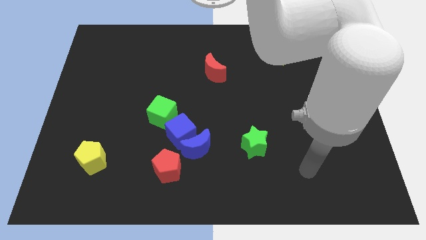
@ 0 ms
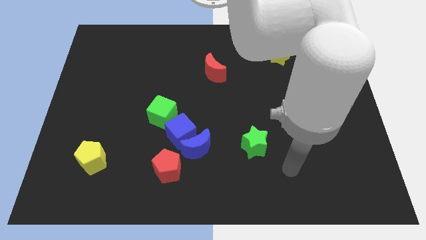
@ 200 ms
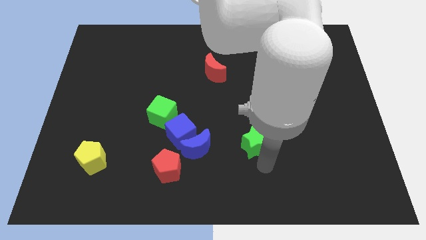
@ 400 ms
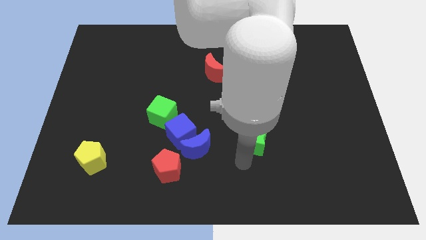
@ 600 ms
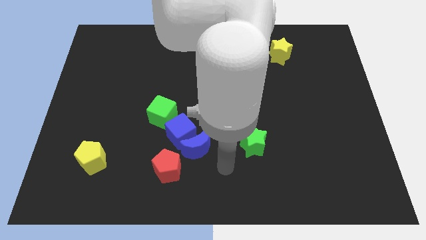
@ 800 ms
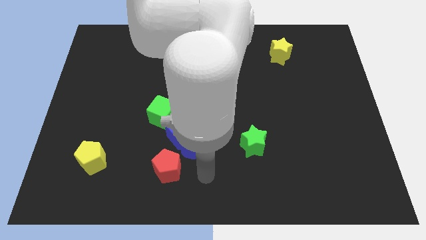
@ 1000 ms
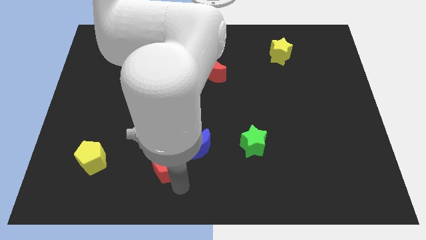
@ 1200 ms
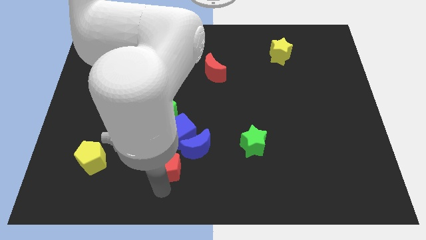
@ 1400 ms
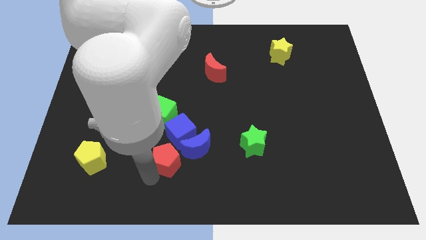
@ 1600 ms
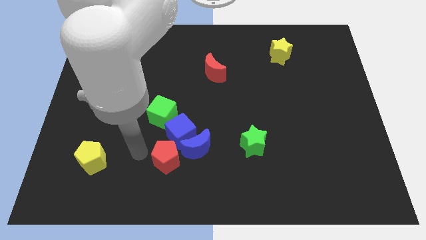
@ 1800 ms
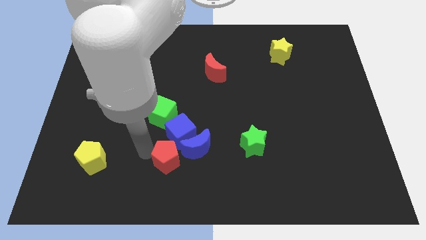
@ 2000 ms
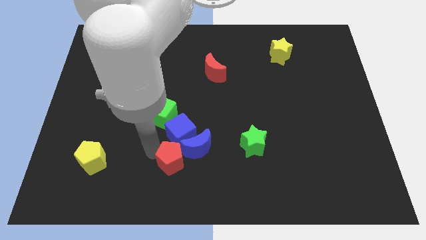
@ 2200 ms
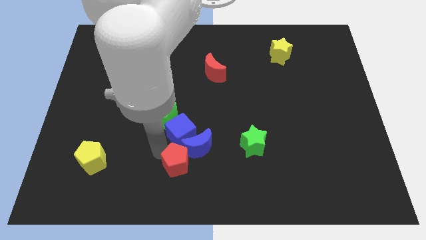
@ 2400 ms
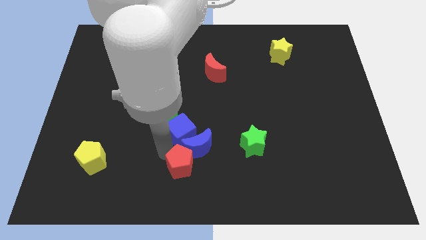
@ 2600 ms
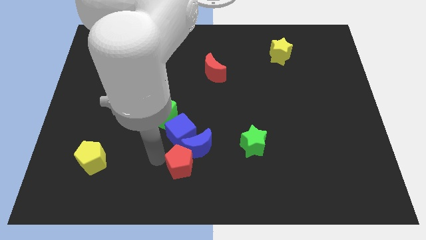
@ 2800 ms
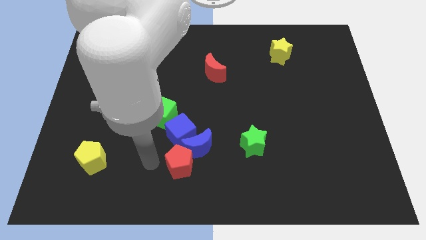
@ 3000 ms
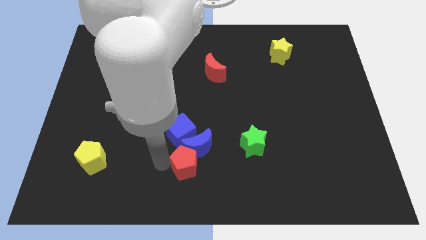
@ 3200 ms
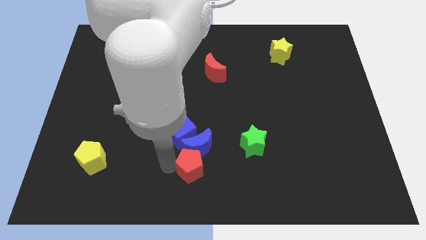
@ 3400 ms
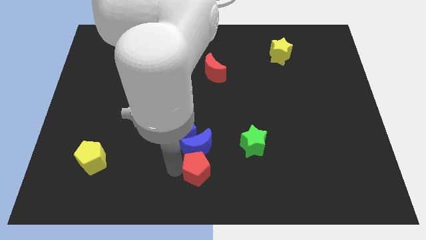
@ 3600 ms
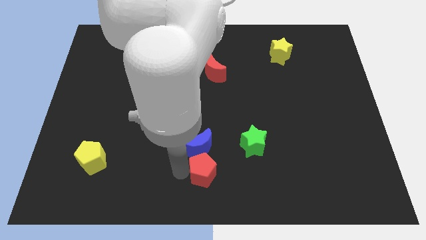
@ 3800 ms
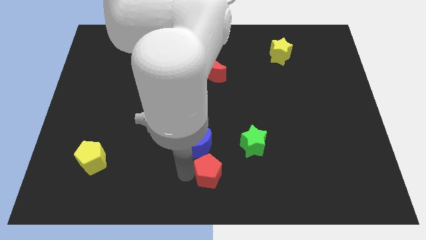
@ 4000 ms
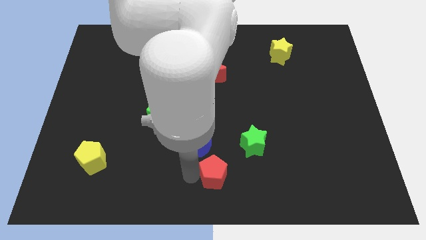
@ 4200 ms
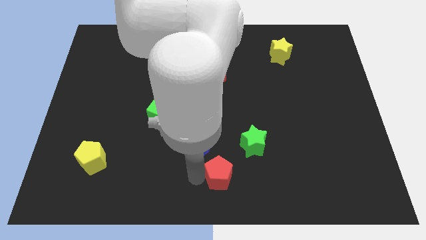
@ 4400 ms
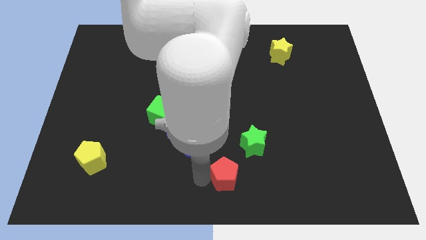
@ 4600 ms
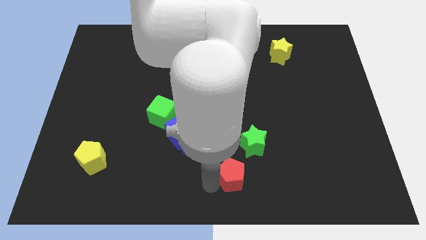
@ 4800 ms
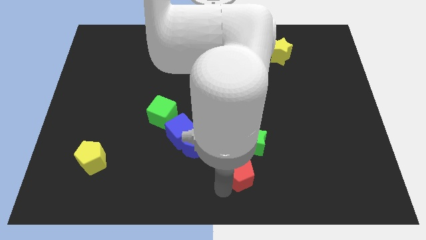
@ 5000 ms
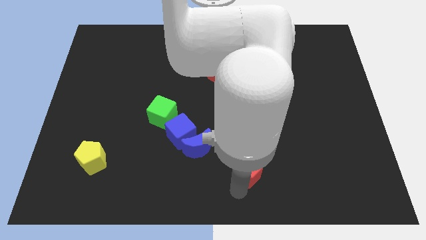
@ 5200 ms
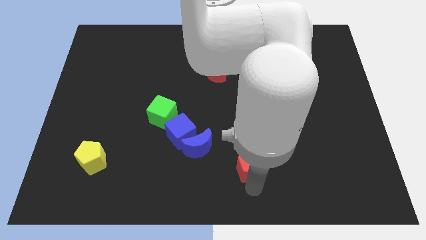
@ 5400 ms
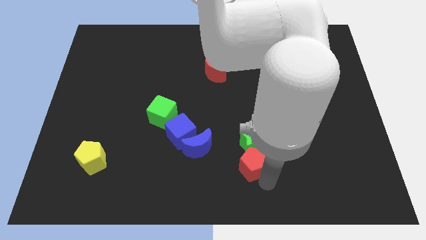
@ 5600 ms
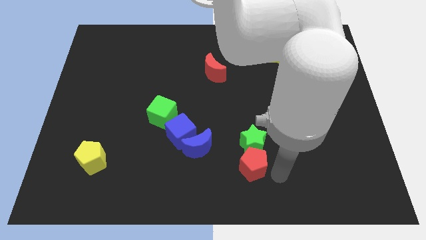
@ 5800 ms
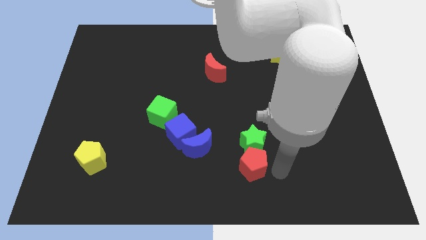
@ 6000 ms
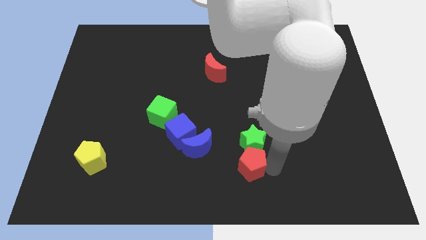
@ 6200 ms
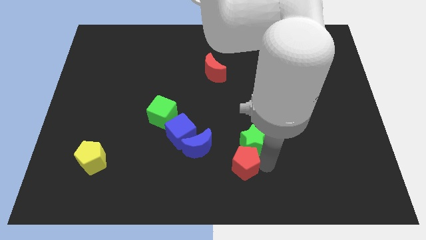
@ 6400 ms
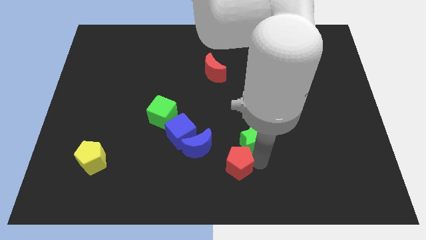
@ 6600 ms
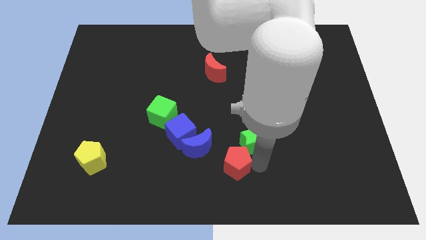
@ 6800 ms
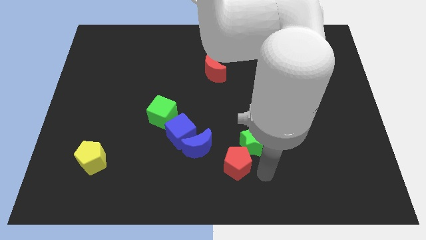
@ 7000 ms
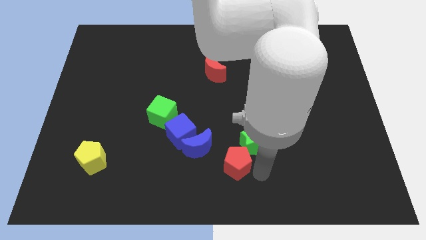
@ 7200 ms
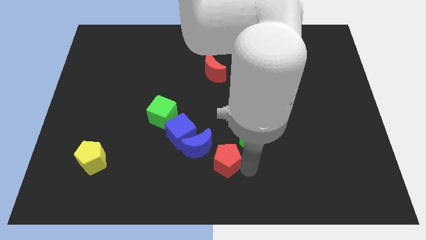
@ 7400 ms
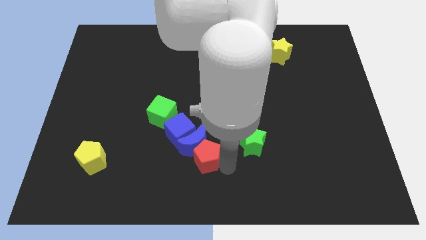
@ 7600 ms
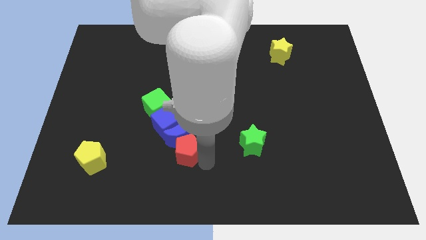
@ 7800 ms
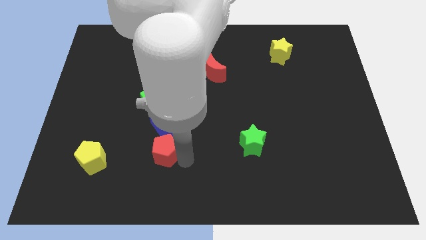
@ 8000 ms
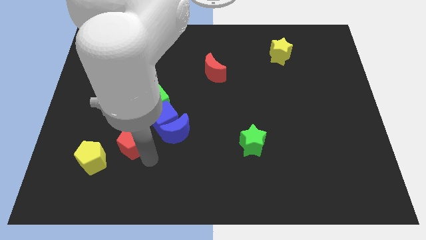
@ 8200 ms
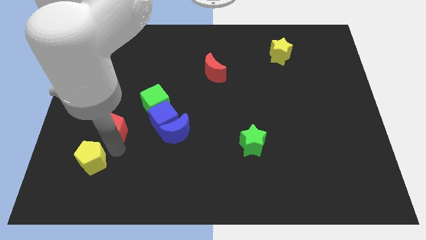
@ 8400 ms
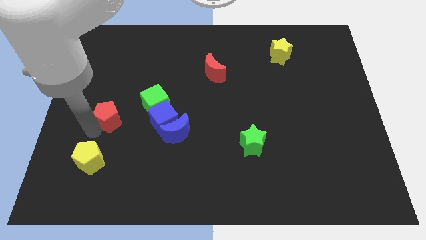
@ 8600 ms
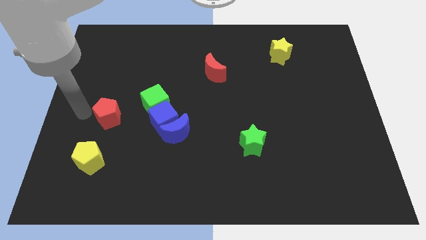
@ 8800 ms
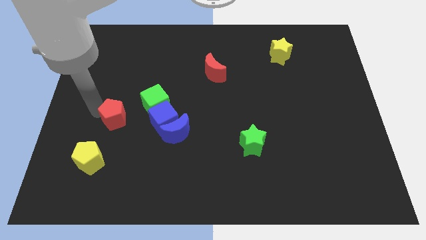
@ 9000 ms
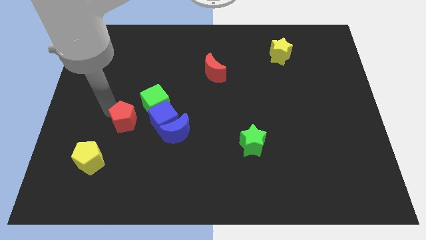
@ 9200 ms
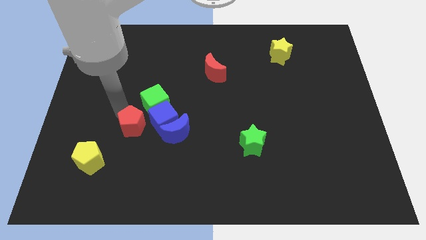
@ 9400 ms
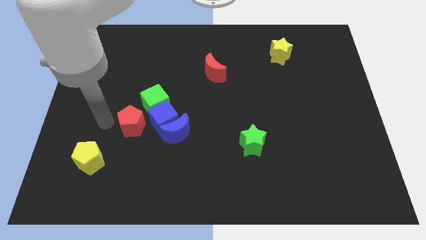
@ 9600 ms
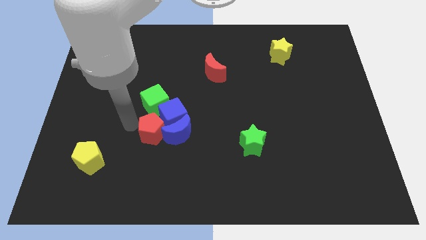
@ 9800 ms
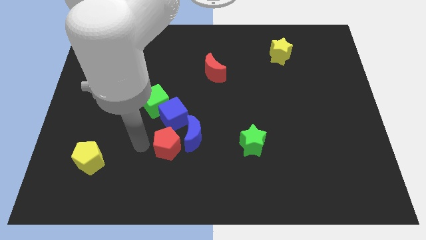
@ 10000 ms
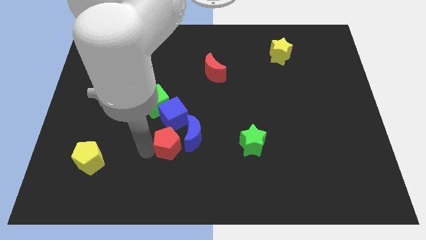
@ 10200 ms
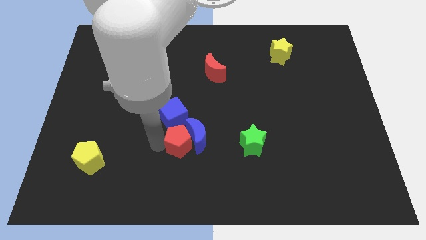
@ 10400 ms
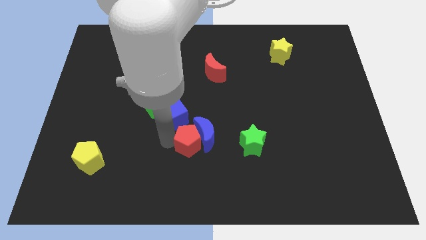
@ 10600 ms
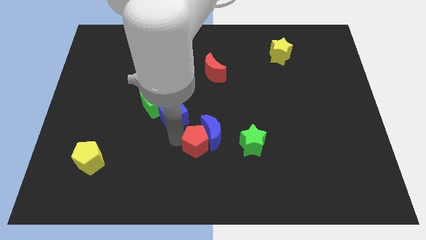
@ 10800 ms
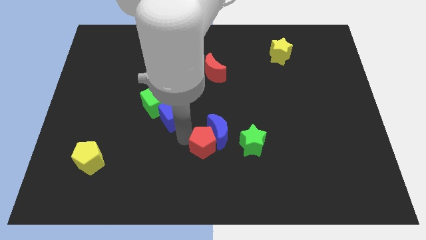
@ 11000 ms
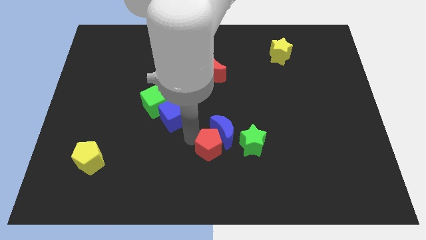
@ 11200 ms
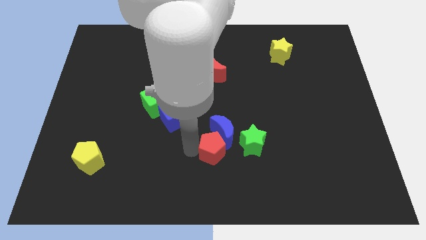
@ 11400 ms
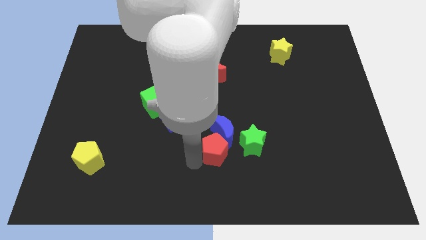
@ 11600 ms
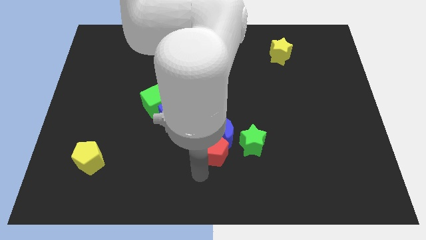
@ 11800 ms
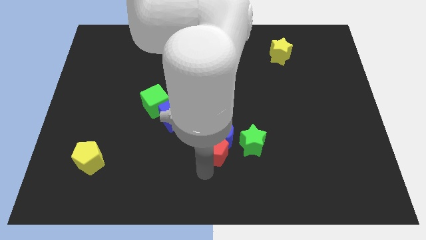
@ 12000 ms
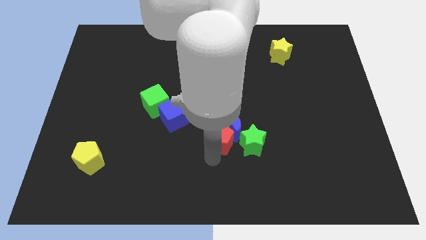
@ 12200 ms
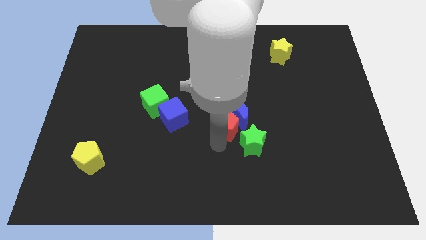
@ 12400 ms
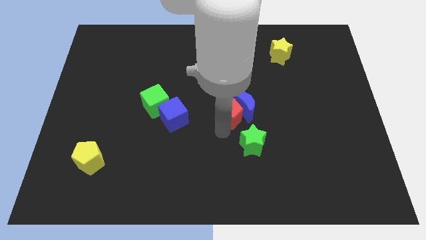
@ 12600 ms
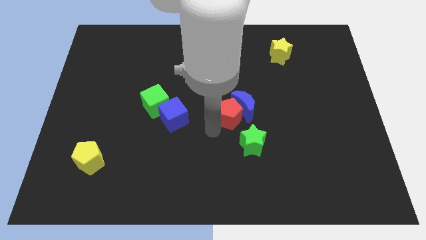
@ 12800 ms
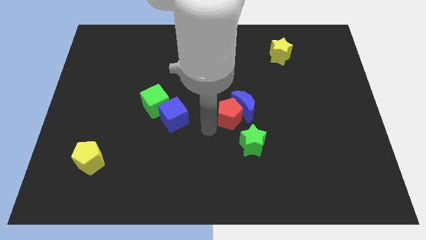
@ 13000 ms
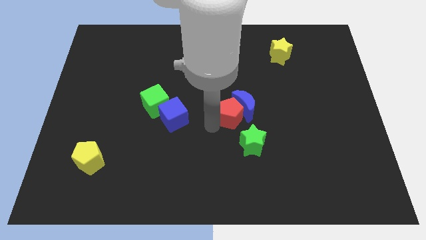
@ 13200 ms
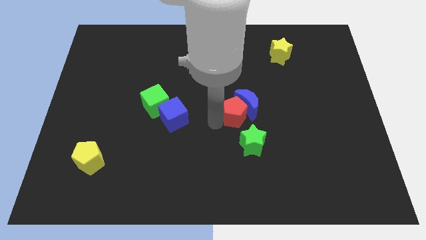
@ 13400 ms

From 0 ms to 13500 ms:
push the red pentagon upwards and right diagonally

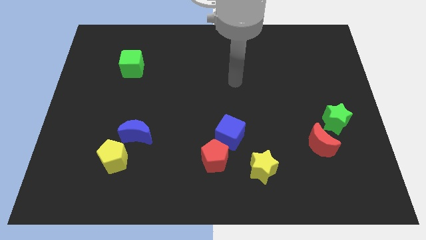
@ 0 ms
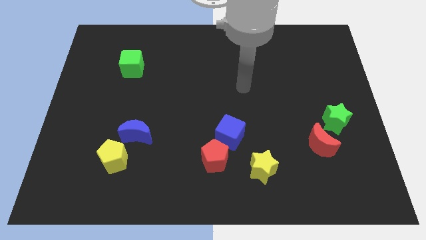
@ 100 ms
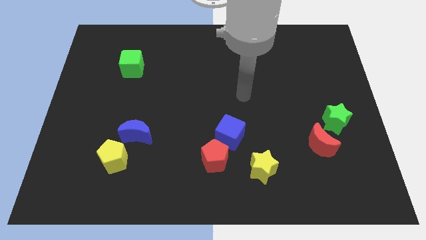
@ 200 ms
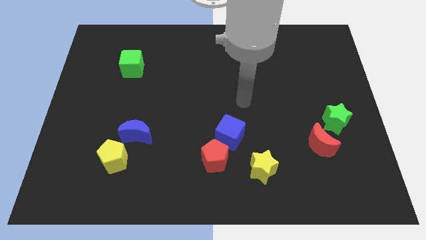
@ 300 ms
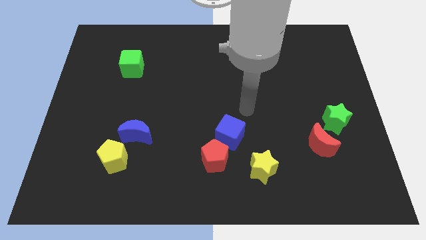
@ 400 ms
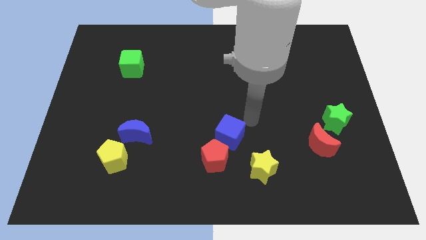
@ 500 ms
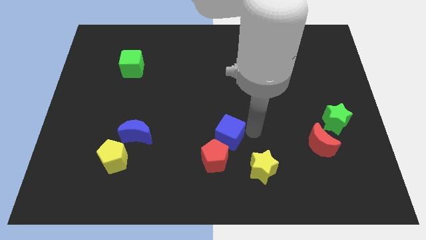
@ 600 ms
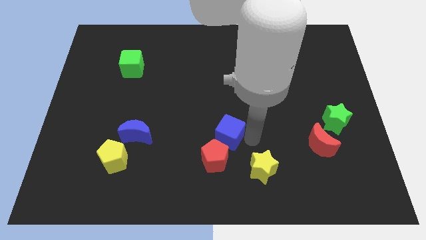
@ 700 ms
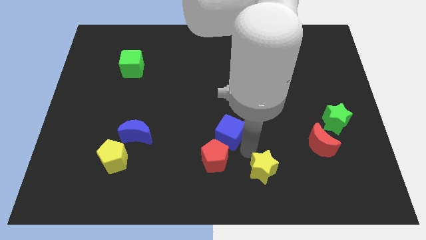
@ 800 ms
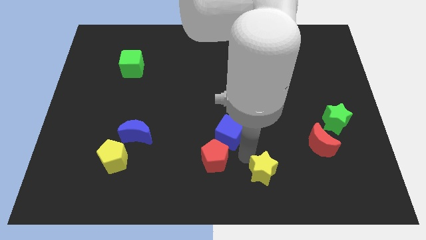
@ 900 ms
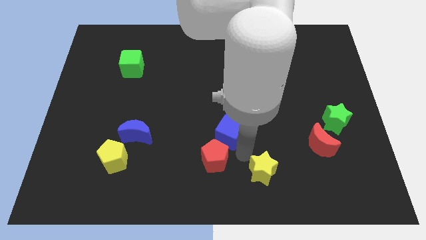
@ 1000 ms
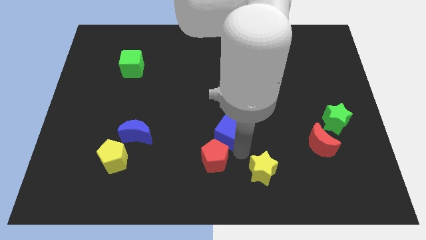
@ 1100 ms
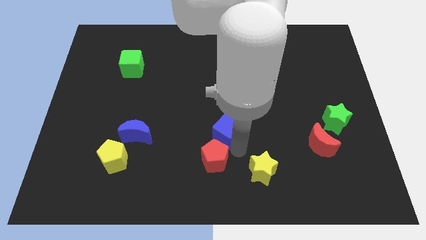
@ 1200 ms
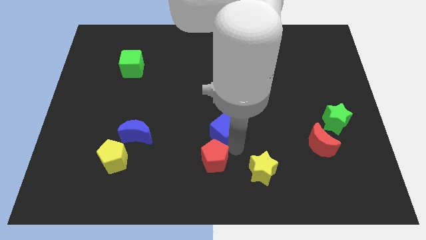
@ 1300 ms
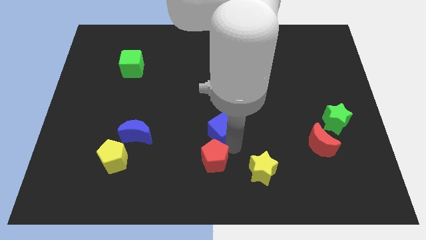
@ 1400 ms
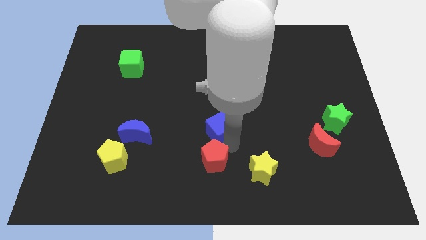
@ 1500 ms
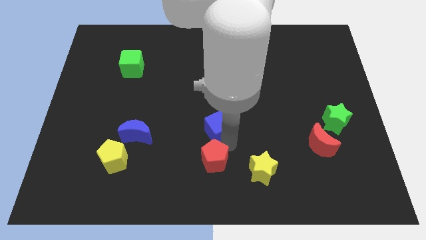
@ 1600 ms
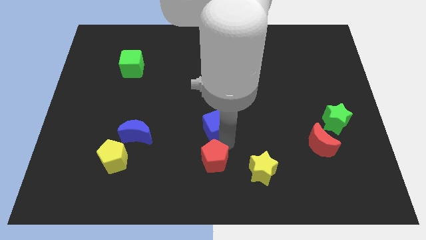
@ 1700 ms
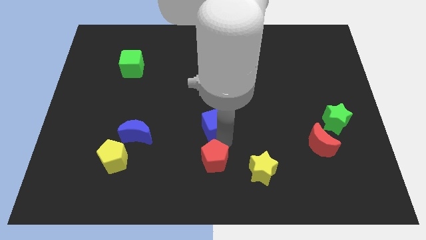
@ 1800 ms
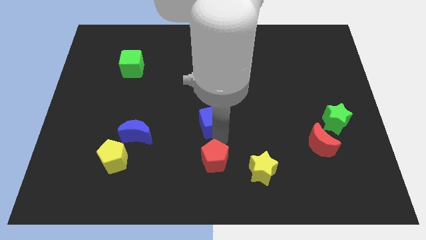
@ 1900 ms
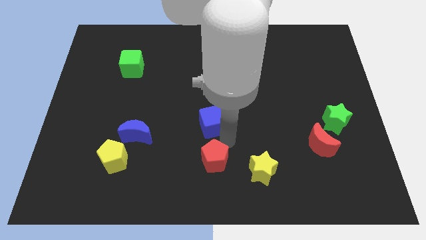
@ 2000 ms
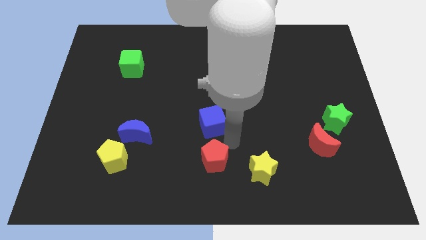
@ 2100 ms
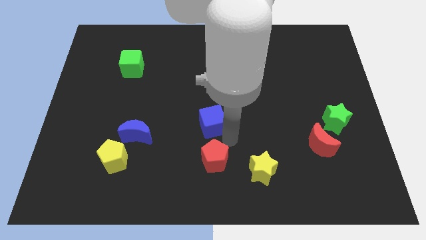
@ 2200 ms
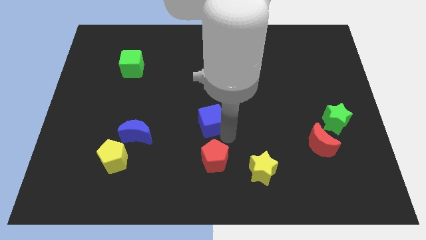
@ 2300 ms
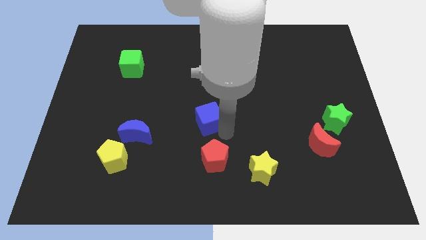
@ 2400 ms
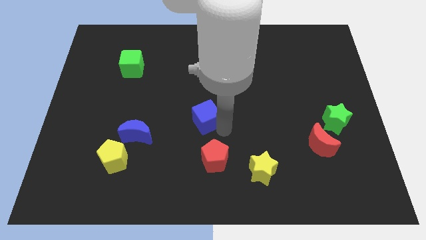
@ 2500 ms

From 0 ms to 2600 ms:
slightly push the blue cube upwards and then to the left
